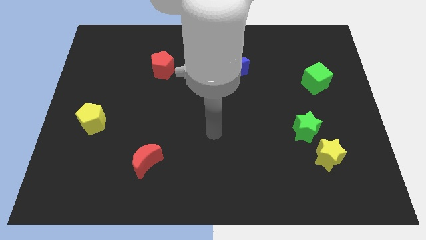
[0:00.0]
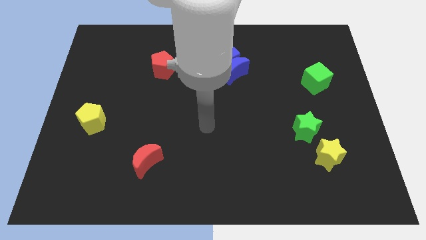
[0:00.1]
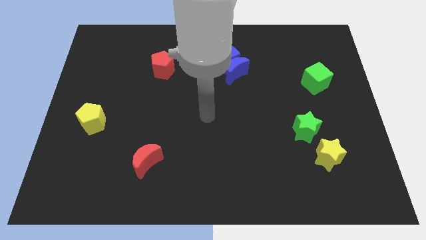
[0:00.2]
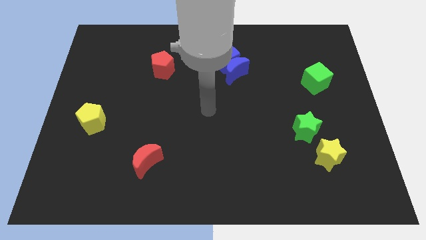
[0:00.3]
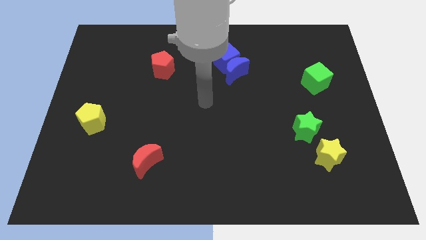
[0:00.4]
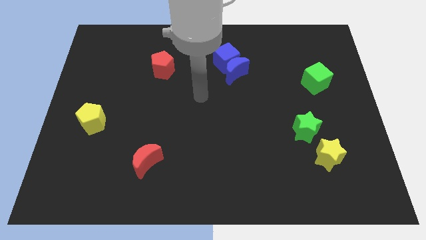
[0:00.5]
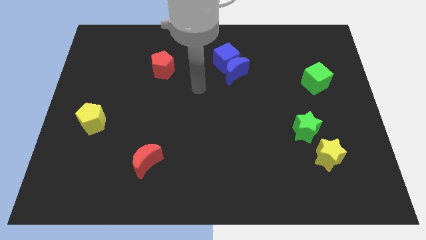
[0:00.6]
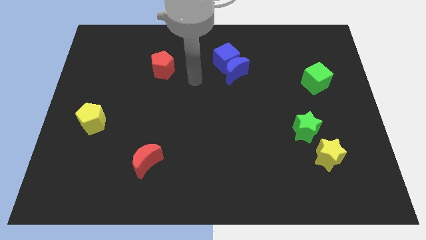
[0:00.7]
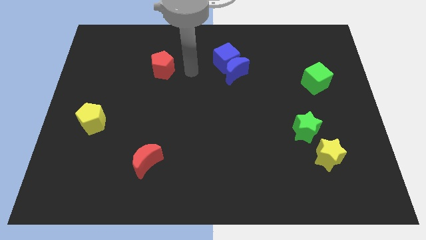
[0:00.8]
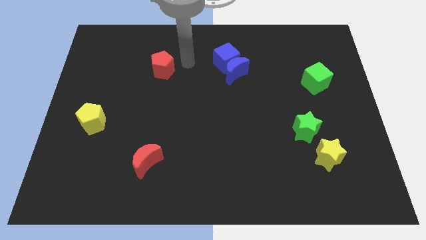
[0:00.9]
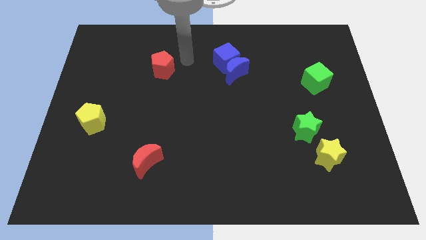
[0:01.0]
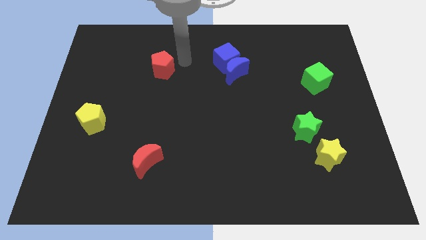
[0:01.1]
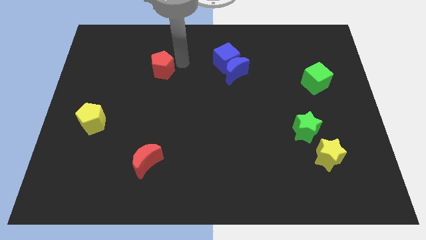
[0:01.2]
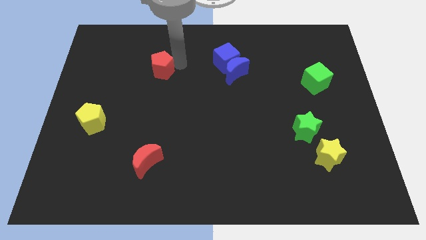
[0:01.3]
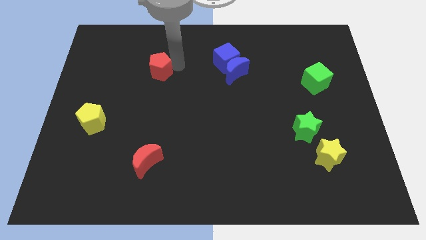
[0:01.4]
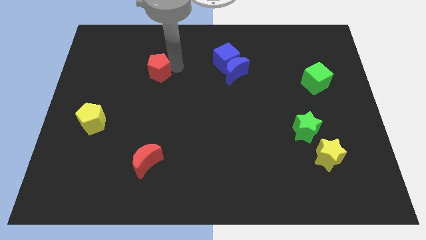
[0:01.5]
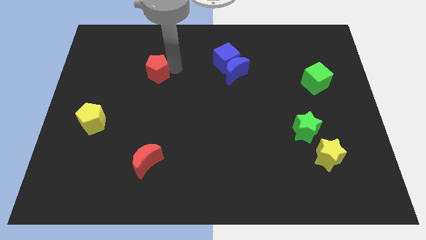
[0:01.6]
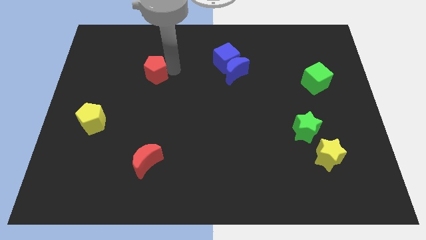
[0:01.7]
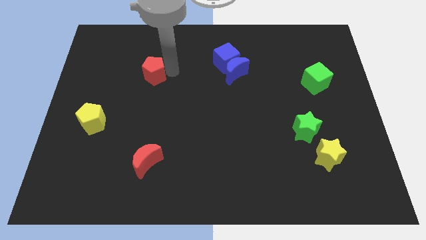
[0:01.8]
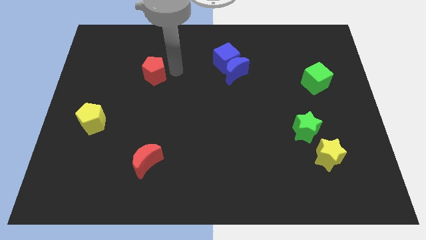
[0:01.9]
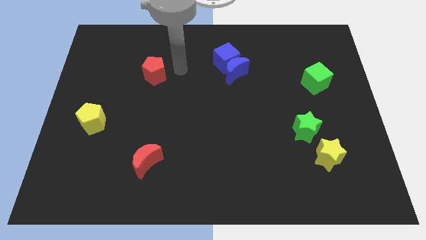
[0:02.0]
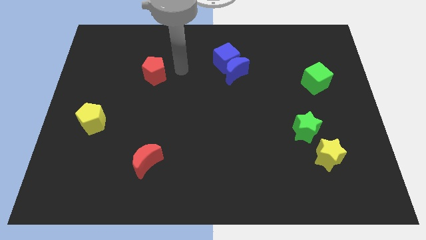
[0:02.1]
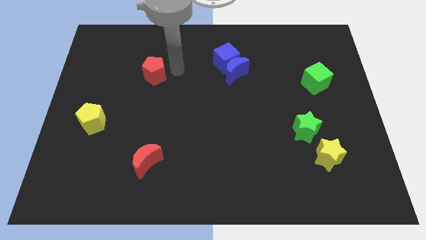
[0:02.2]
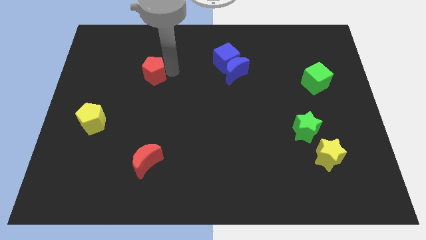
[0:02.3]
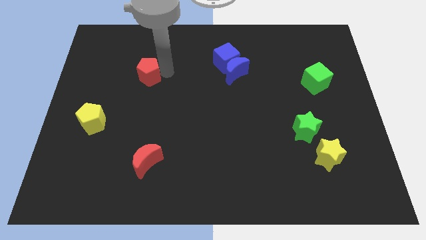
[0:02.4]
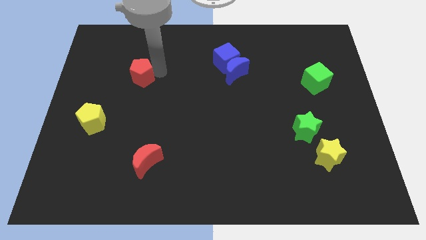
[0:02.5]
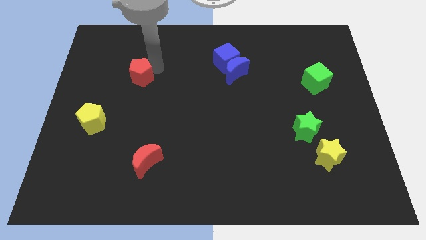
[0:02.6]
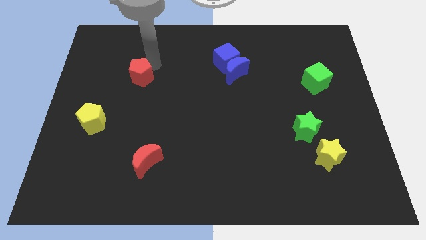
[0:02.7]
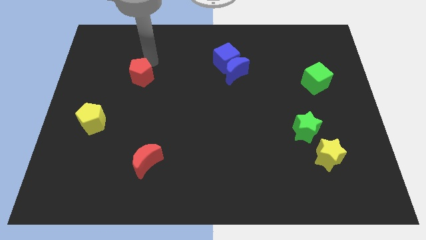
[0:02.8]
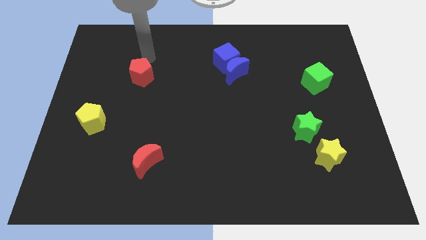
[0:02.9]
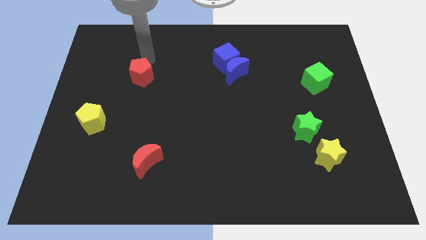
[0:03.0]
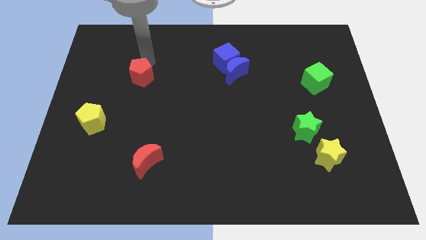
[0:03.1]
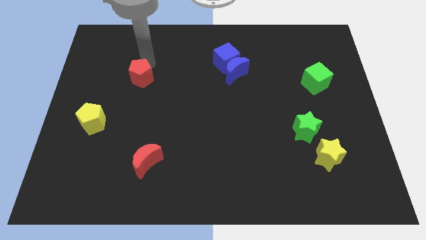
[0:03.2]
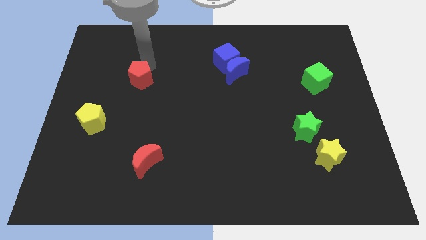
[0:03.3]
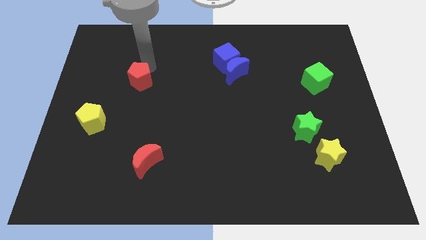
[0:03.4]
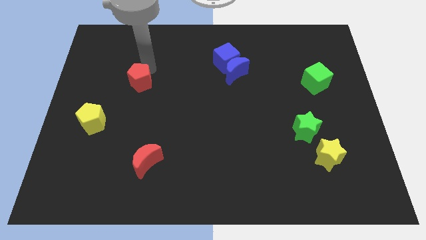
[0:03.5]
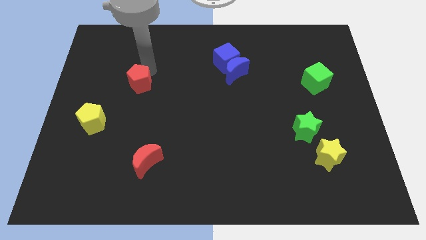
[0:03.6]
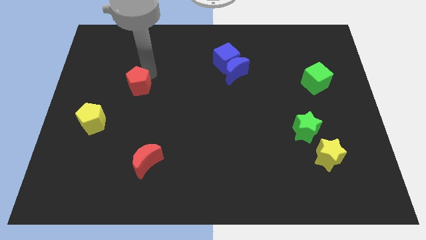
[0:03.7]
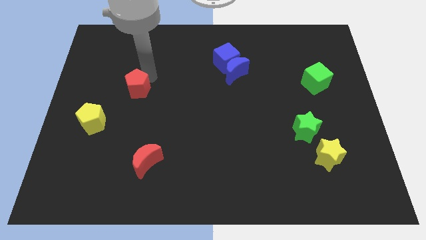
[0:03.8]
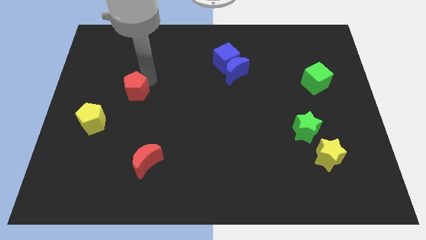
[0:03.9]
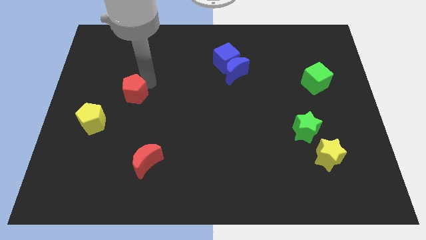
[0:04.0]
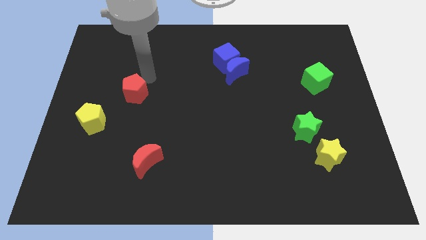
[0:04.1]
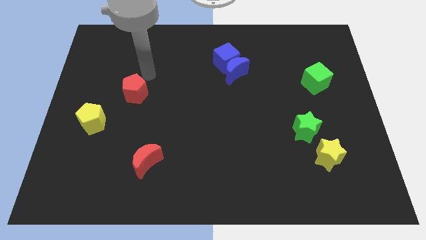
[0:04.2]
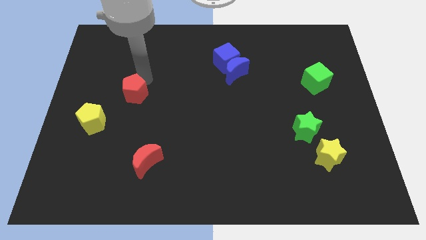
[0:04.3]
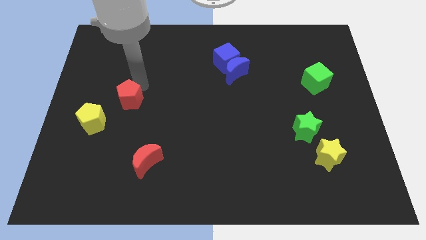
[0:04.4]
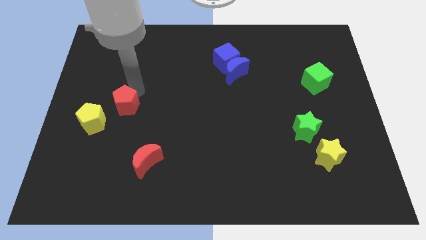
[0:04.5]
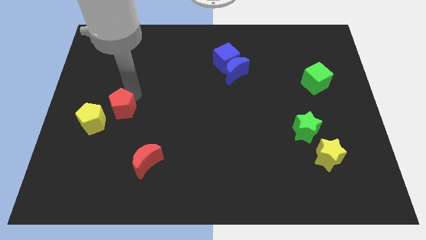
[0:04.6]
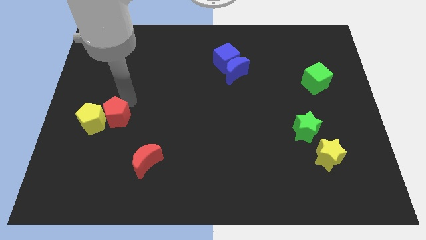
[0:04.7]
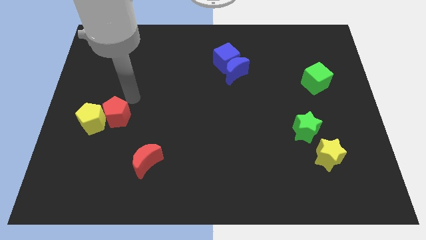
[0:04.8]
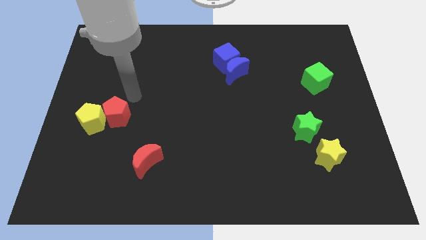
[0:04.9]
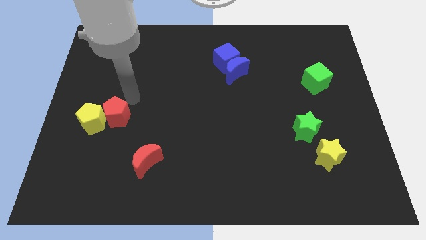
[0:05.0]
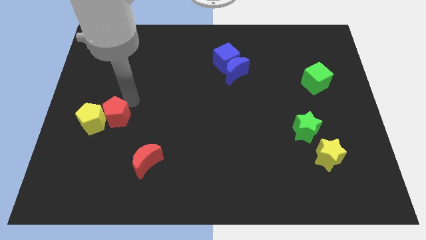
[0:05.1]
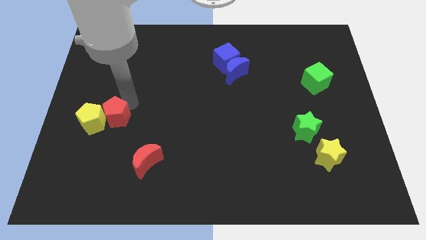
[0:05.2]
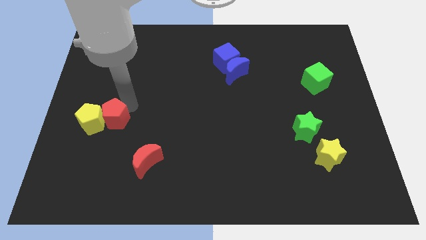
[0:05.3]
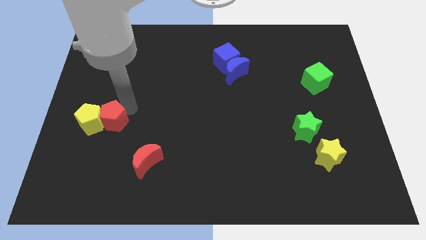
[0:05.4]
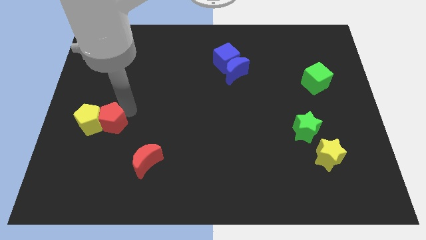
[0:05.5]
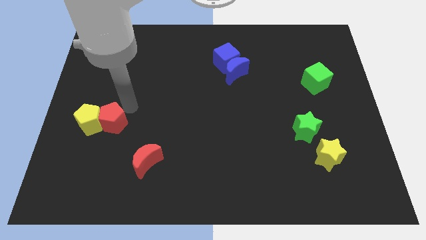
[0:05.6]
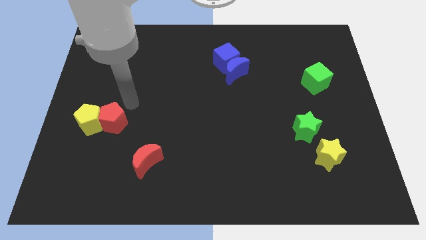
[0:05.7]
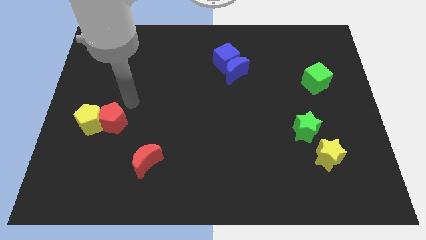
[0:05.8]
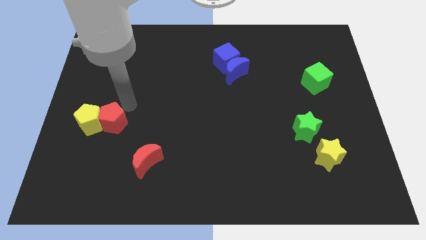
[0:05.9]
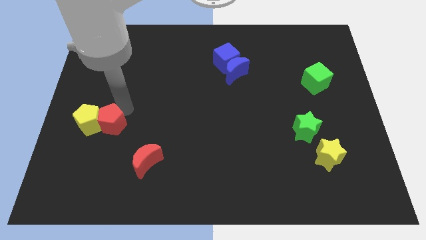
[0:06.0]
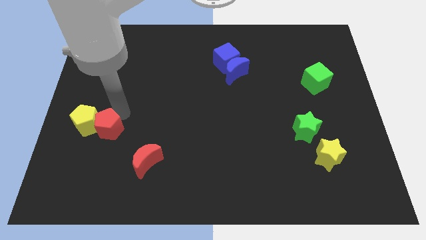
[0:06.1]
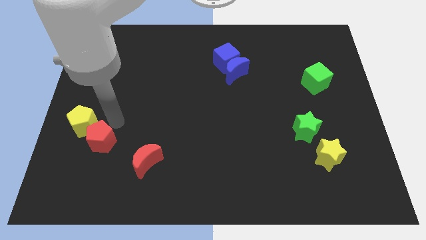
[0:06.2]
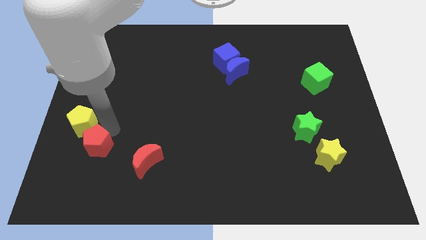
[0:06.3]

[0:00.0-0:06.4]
slide the red pentagon to the bottom of the yellow pentagon

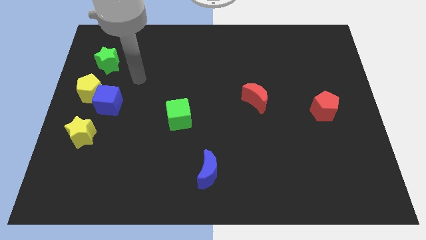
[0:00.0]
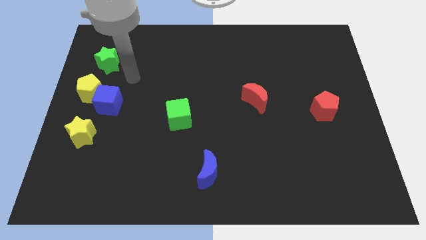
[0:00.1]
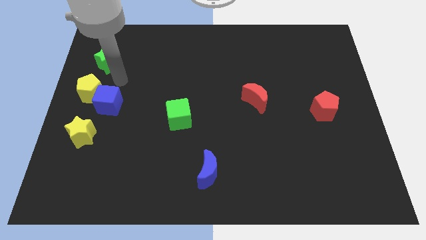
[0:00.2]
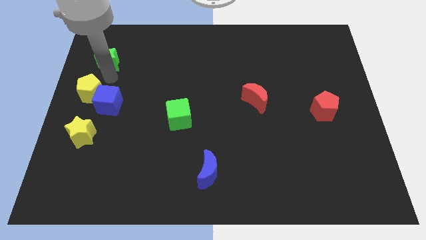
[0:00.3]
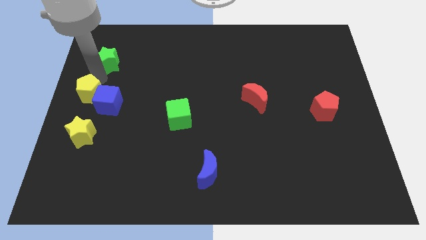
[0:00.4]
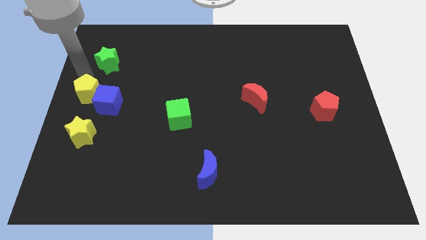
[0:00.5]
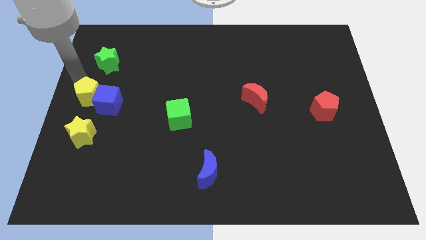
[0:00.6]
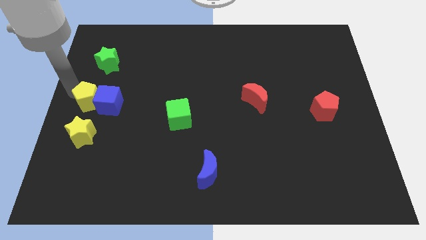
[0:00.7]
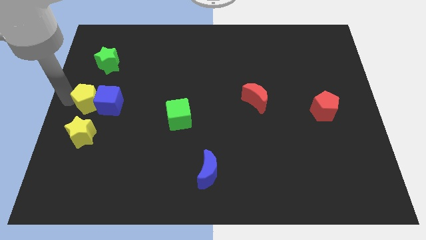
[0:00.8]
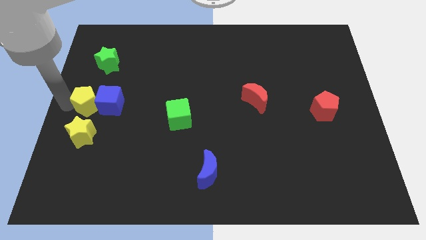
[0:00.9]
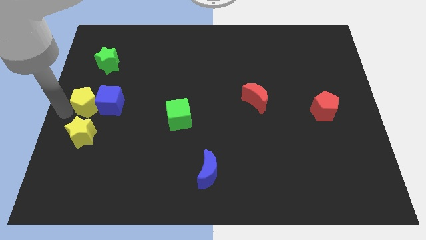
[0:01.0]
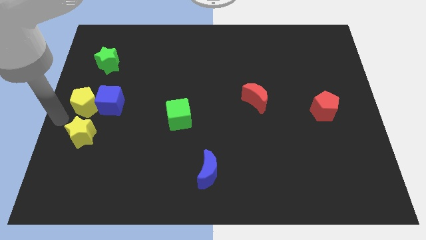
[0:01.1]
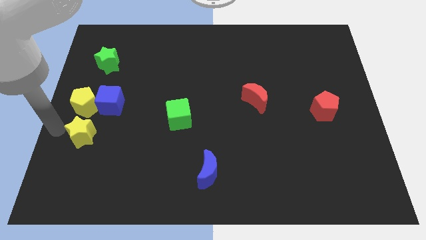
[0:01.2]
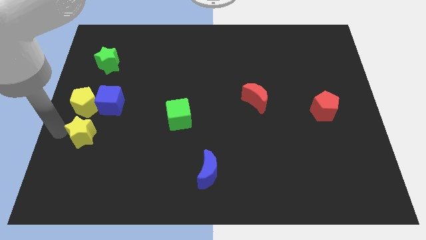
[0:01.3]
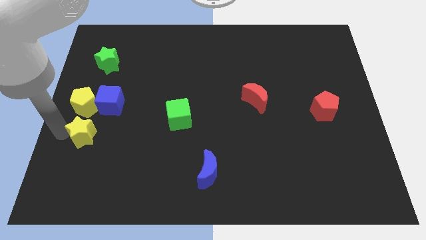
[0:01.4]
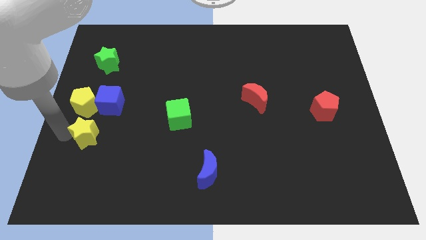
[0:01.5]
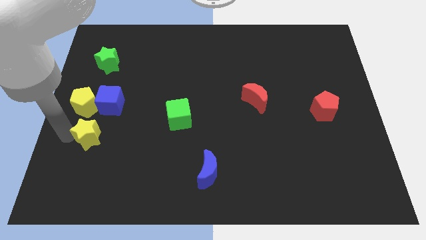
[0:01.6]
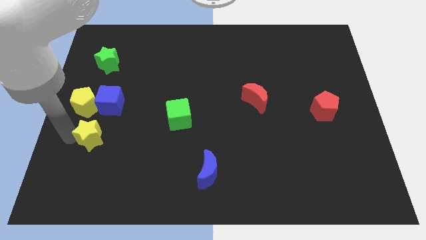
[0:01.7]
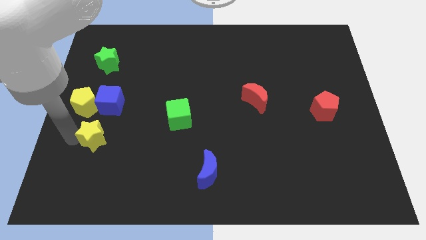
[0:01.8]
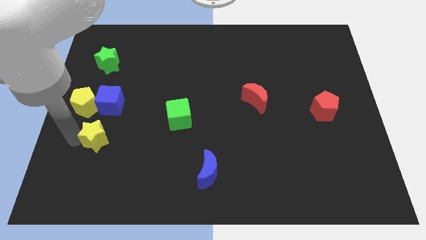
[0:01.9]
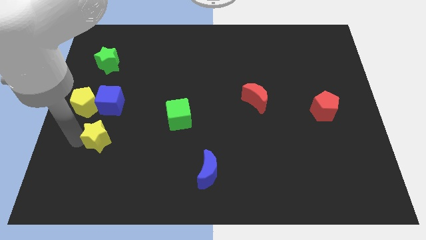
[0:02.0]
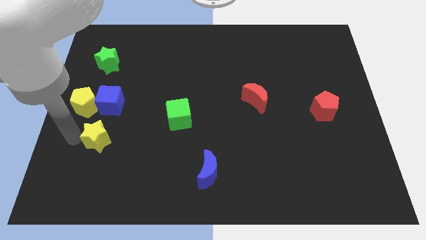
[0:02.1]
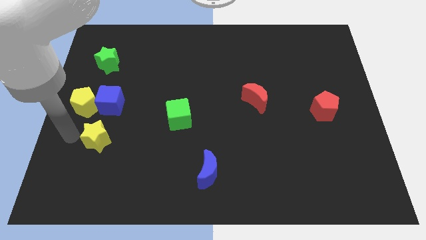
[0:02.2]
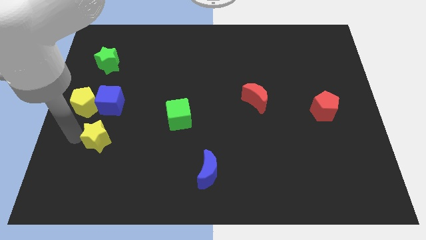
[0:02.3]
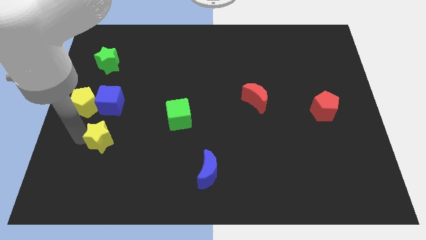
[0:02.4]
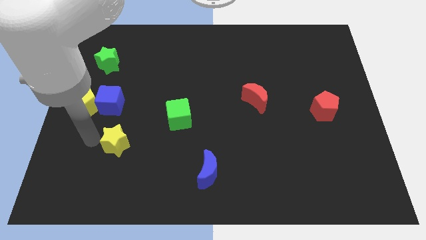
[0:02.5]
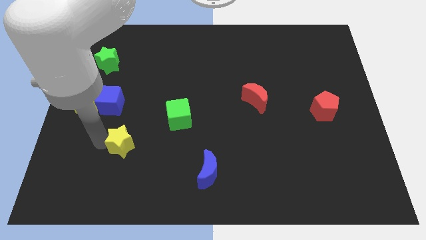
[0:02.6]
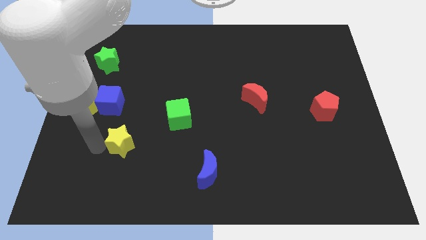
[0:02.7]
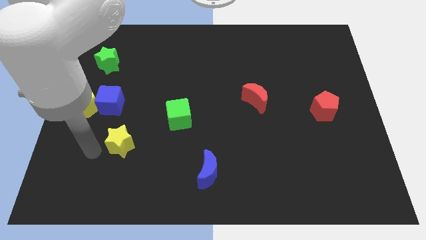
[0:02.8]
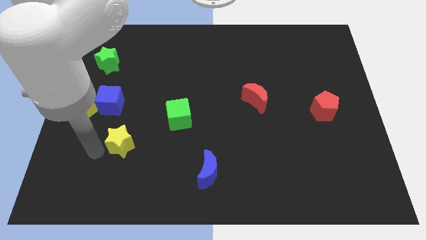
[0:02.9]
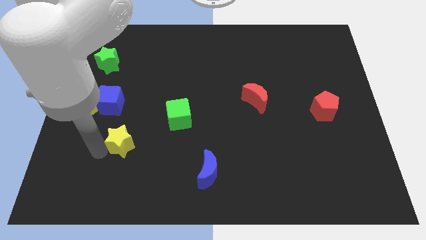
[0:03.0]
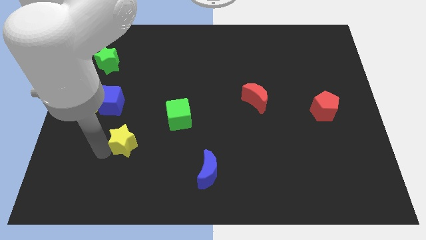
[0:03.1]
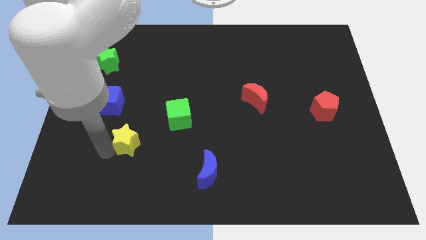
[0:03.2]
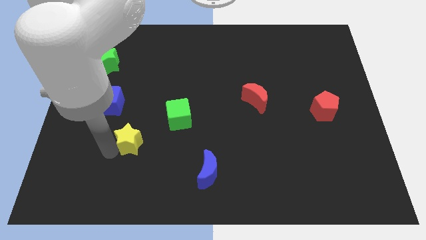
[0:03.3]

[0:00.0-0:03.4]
put the yellow star diagonally down and to the left of the green cube
